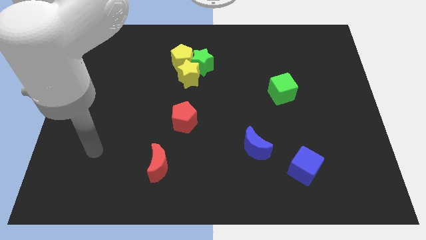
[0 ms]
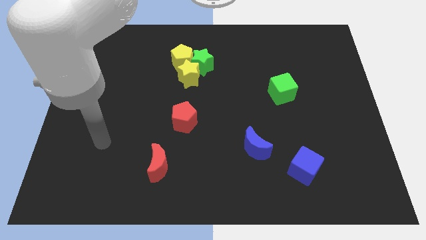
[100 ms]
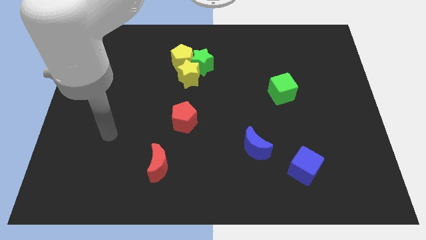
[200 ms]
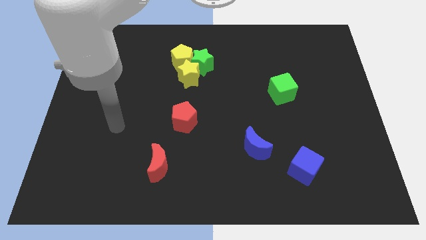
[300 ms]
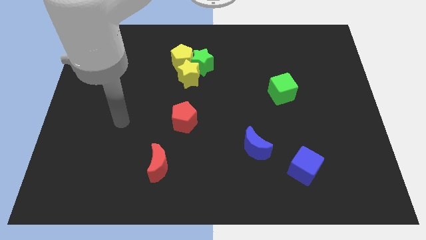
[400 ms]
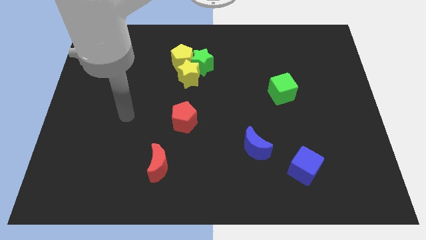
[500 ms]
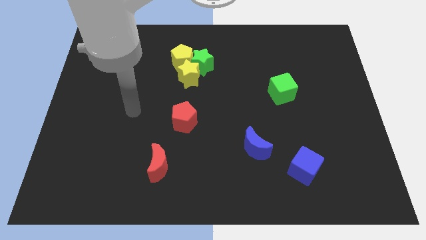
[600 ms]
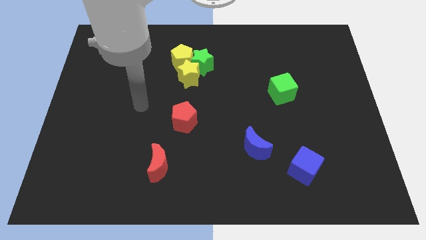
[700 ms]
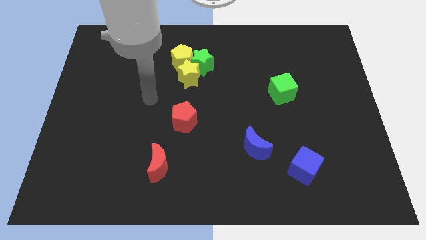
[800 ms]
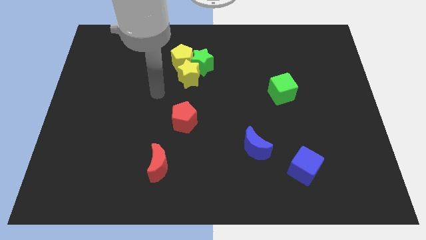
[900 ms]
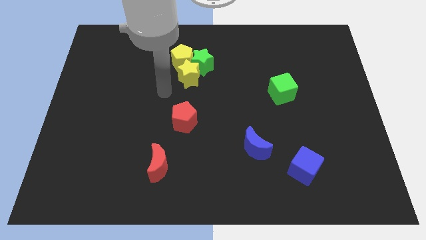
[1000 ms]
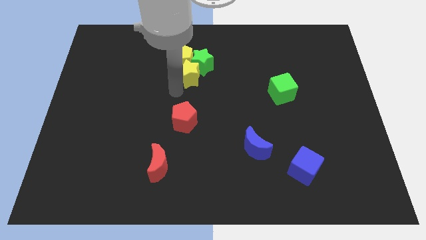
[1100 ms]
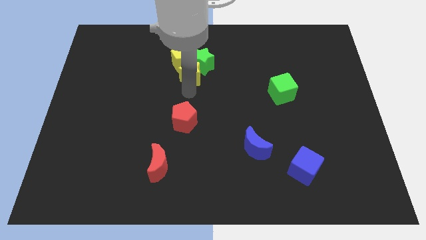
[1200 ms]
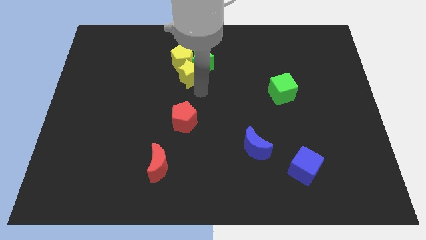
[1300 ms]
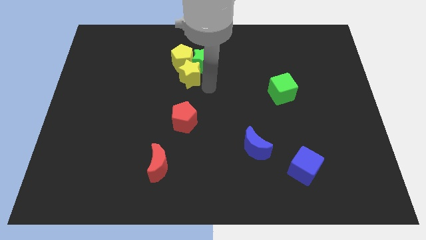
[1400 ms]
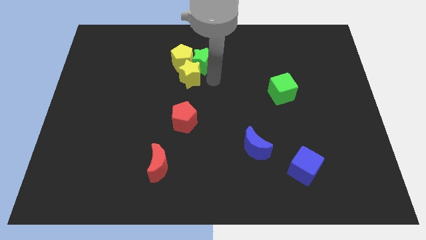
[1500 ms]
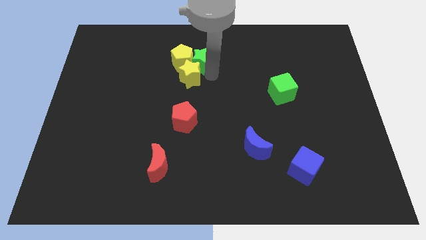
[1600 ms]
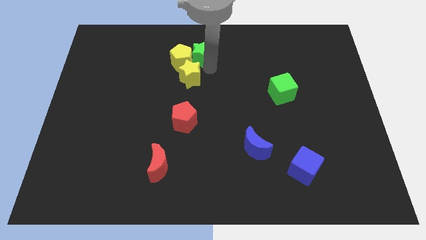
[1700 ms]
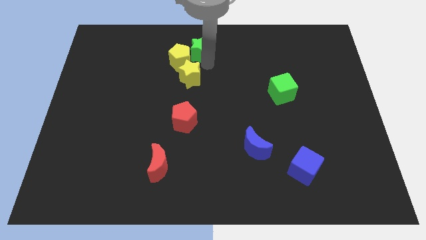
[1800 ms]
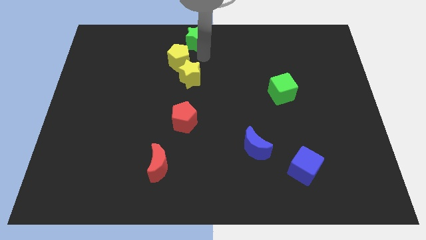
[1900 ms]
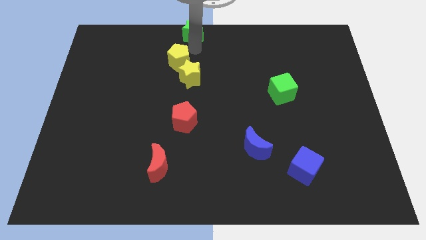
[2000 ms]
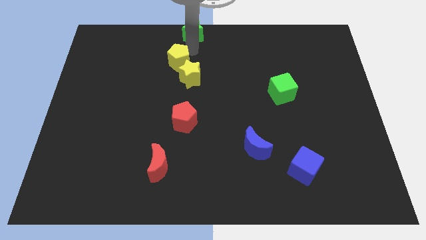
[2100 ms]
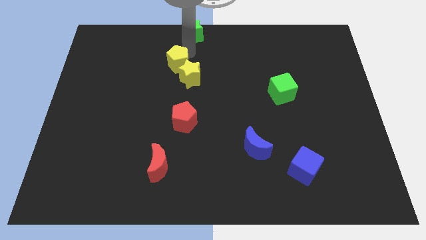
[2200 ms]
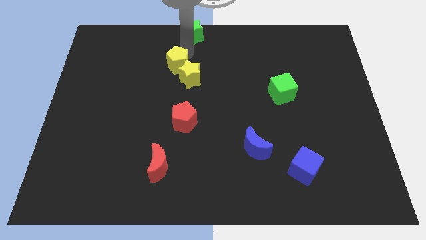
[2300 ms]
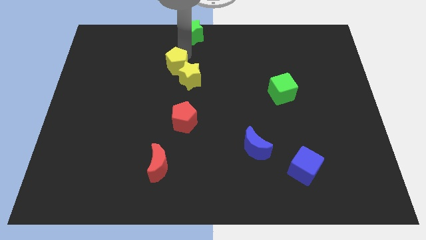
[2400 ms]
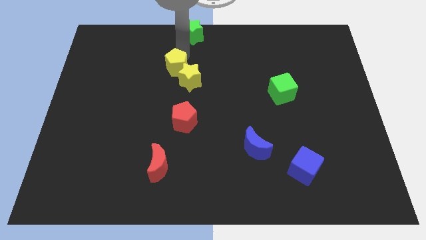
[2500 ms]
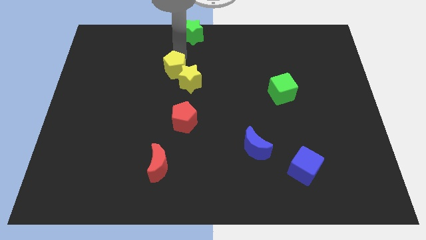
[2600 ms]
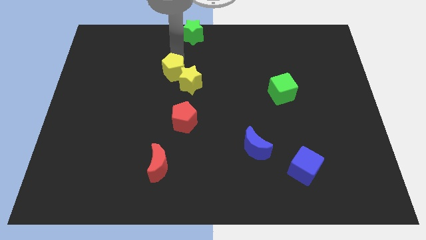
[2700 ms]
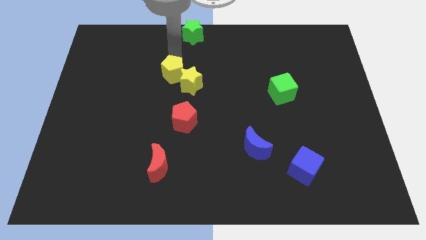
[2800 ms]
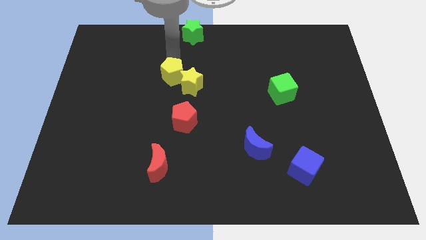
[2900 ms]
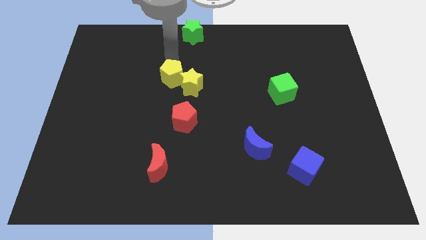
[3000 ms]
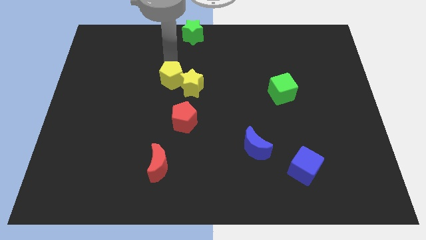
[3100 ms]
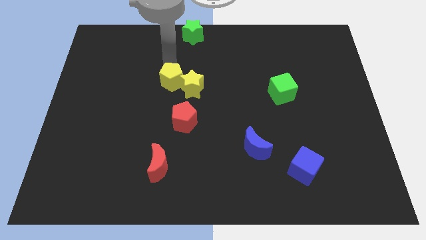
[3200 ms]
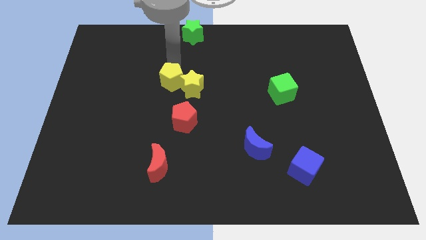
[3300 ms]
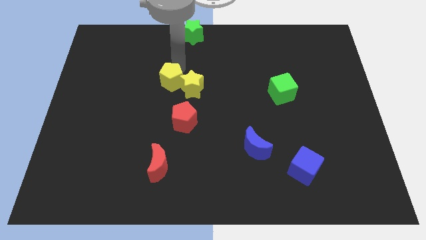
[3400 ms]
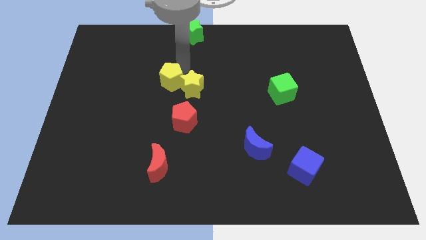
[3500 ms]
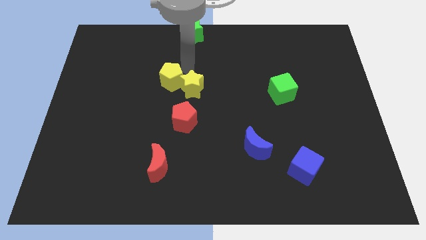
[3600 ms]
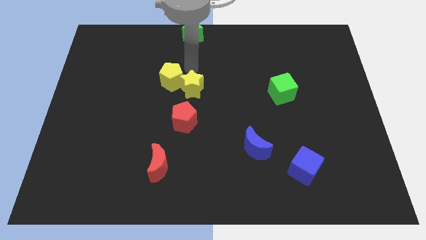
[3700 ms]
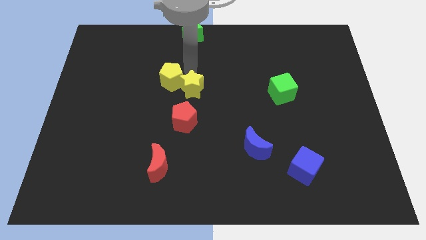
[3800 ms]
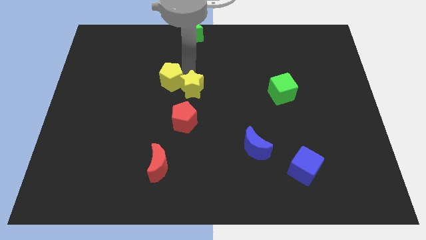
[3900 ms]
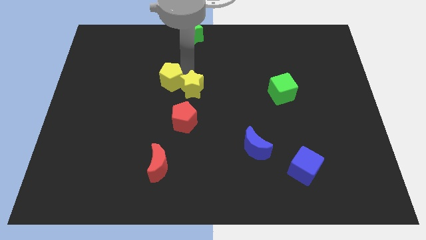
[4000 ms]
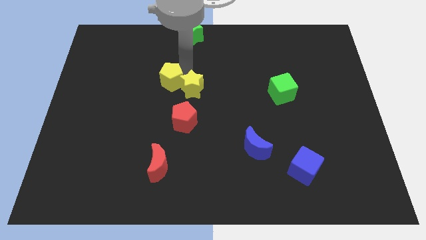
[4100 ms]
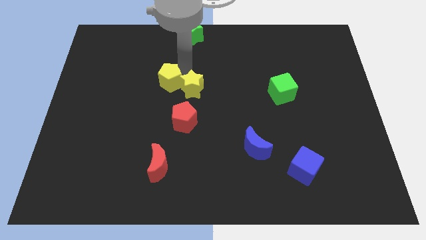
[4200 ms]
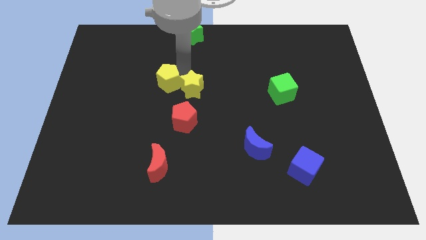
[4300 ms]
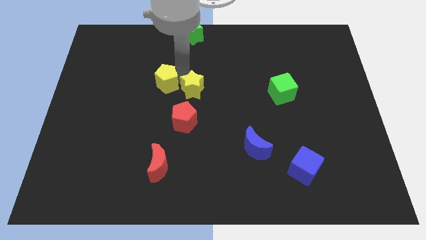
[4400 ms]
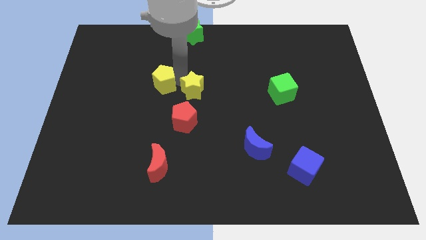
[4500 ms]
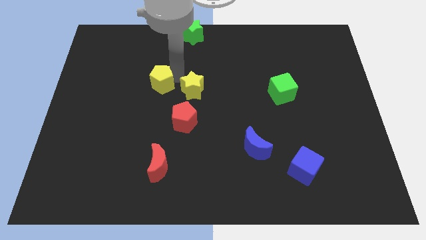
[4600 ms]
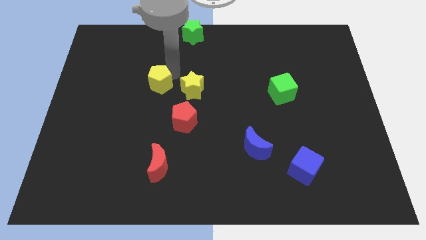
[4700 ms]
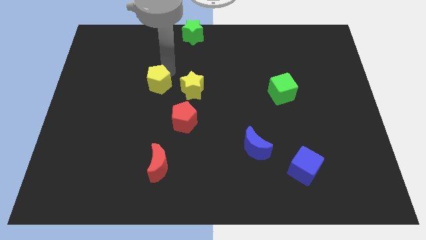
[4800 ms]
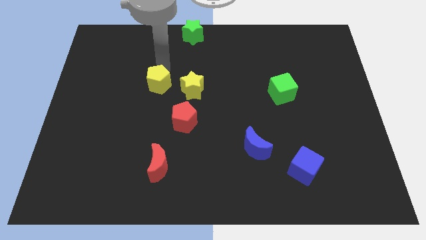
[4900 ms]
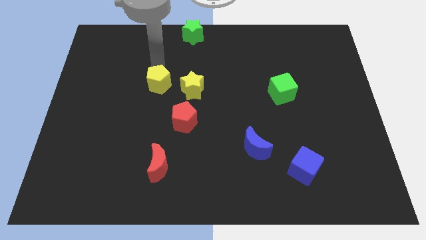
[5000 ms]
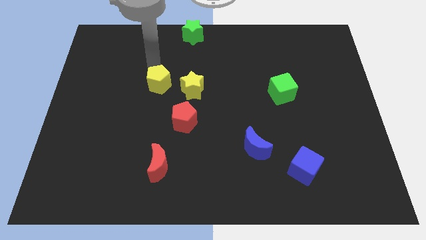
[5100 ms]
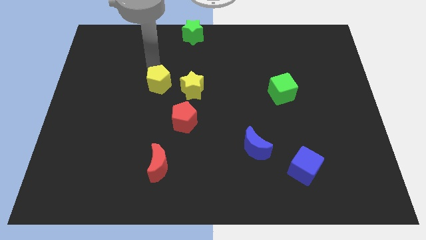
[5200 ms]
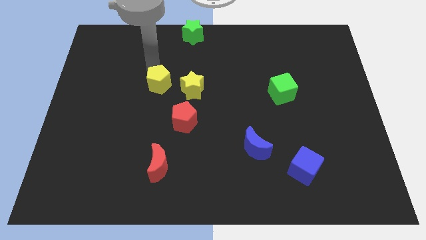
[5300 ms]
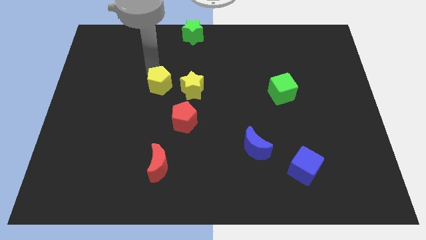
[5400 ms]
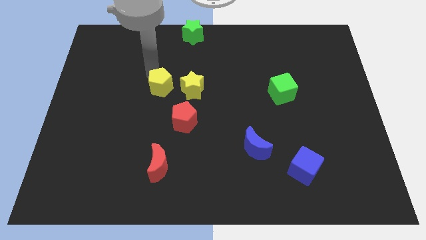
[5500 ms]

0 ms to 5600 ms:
slide the yellow pentagon to the top left of the red pentagon

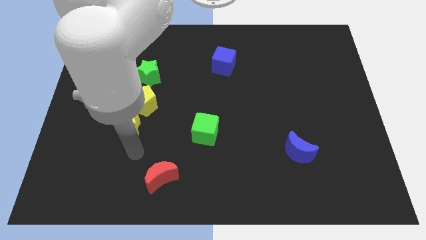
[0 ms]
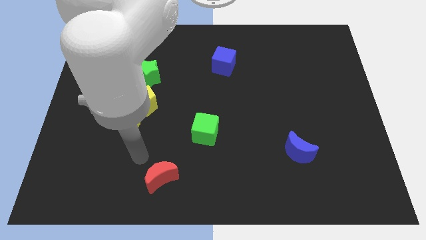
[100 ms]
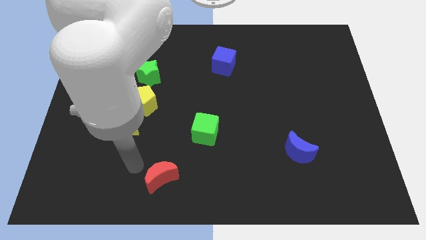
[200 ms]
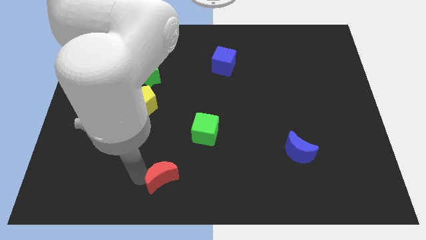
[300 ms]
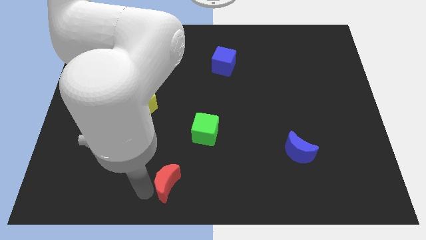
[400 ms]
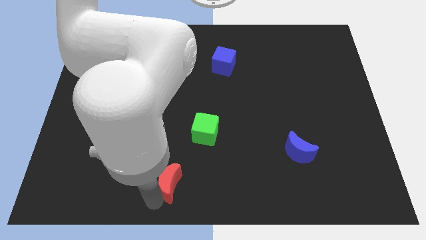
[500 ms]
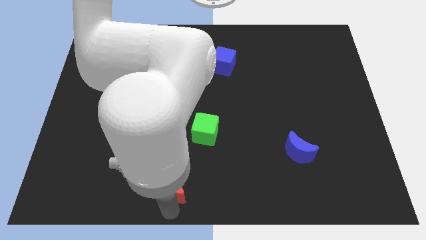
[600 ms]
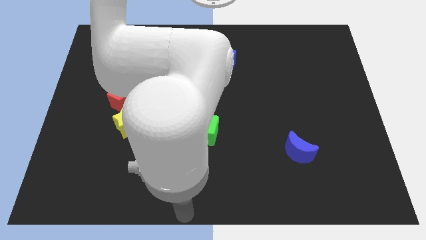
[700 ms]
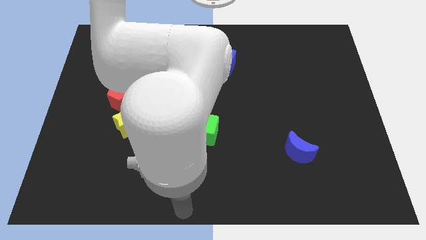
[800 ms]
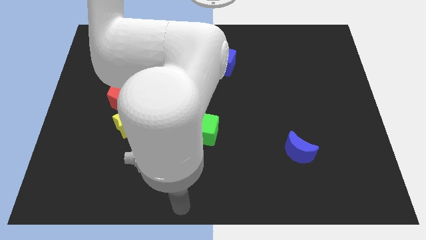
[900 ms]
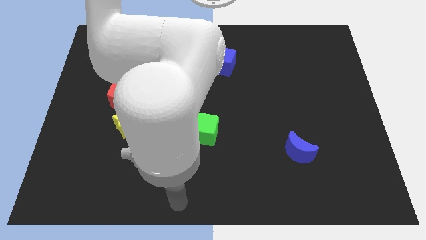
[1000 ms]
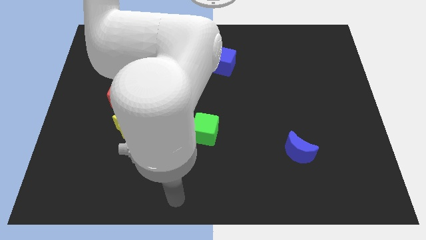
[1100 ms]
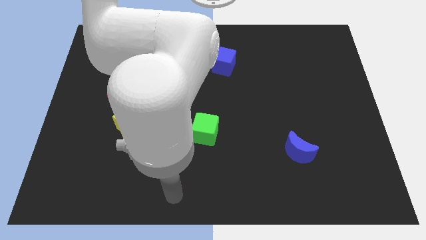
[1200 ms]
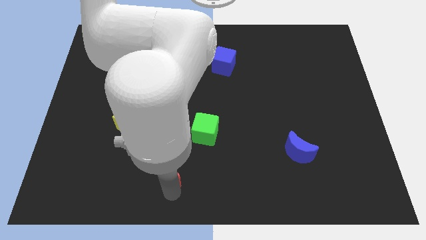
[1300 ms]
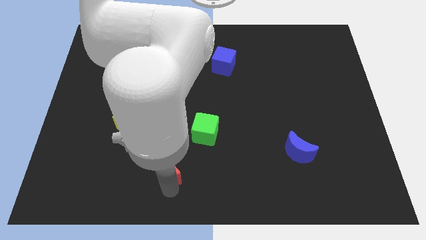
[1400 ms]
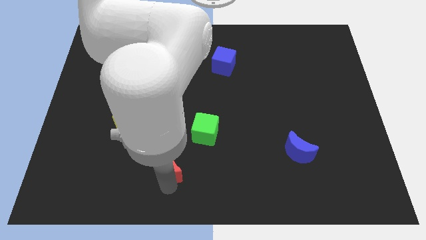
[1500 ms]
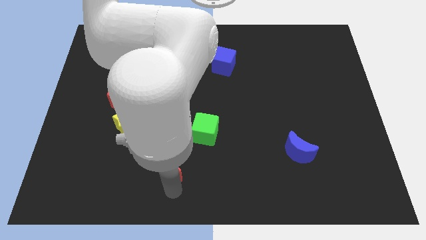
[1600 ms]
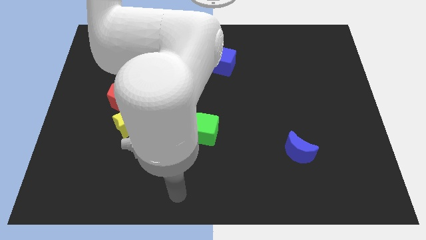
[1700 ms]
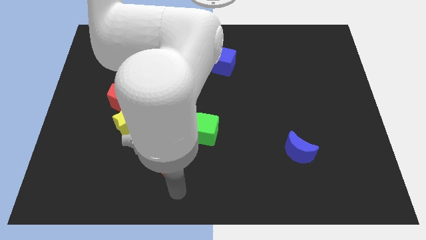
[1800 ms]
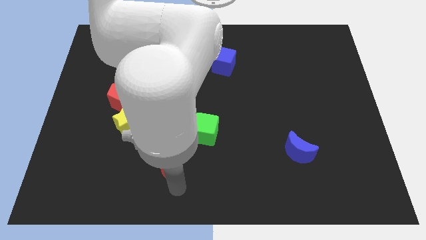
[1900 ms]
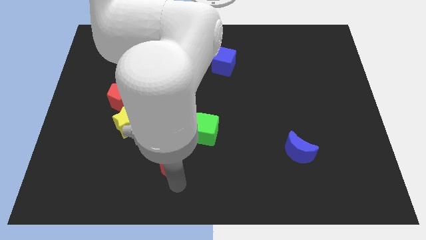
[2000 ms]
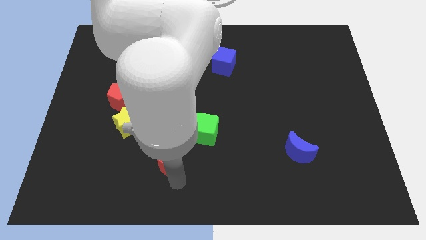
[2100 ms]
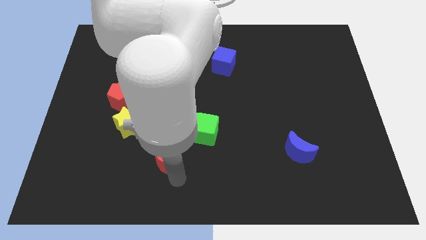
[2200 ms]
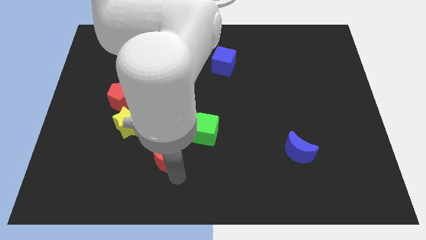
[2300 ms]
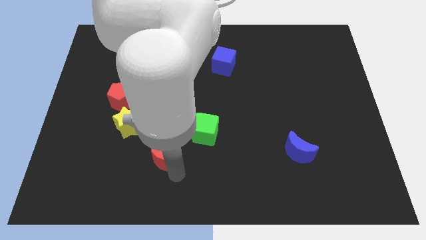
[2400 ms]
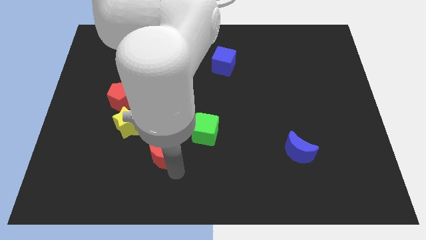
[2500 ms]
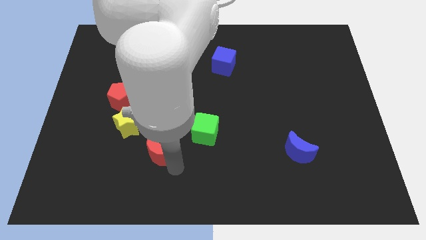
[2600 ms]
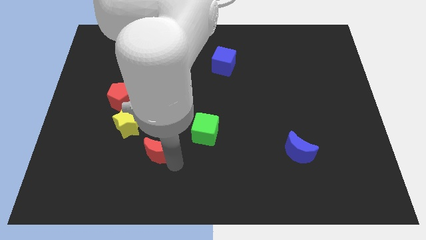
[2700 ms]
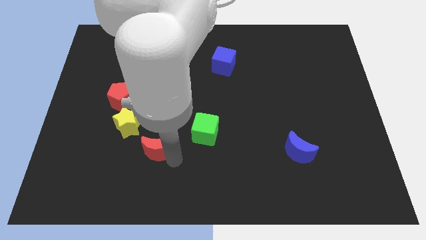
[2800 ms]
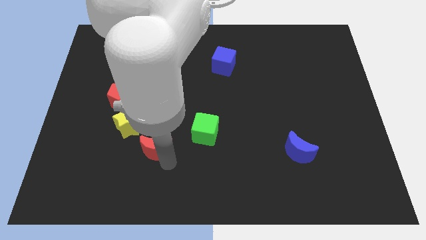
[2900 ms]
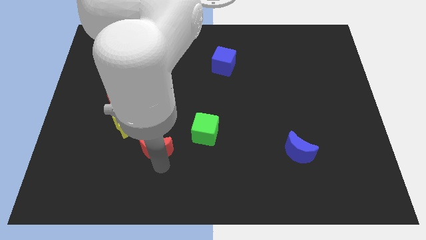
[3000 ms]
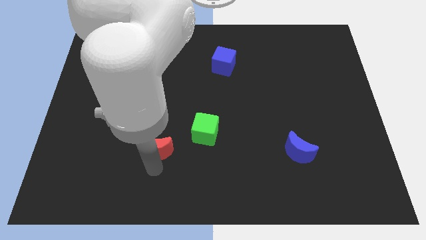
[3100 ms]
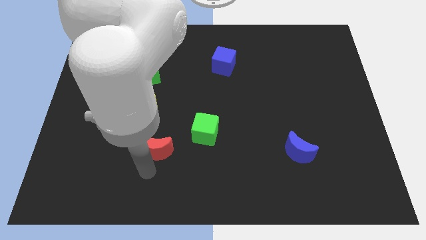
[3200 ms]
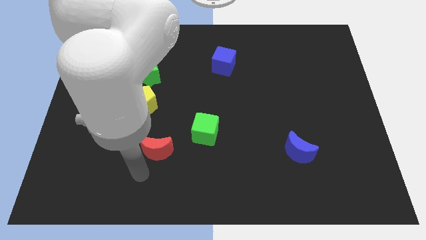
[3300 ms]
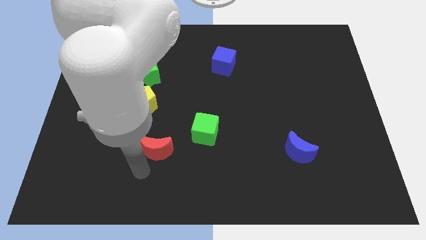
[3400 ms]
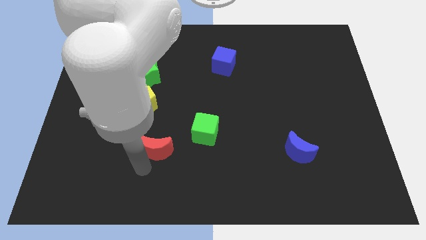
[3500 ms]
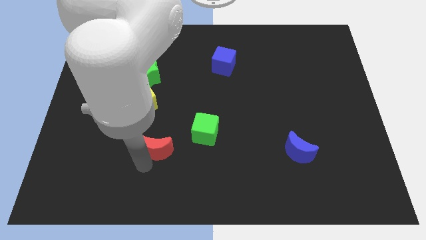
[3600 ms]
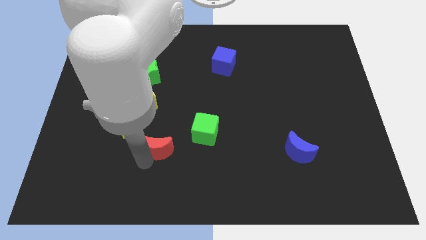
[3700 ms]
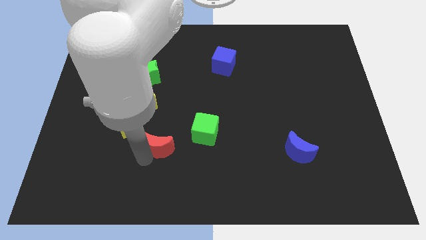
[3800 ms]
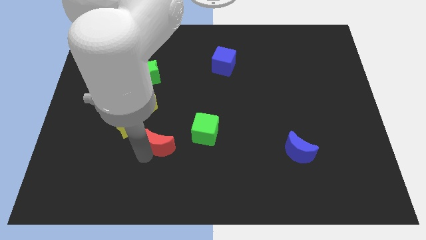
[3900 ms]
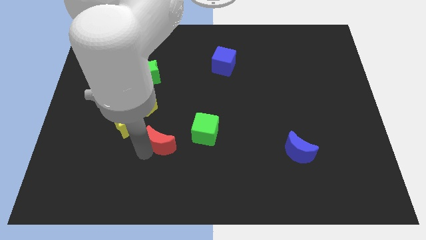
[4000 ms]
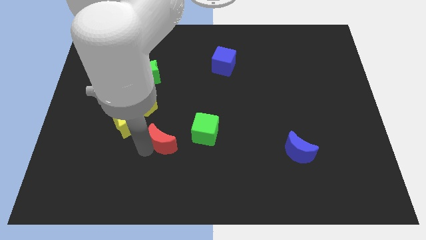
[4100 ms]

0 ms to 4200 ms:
slide the red moon to the right side of the yellow star
